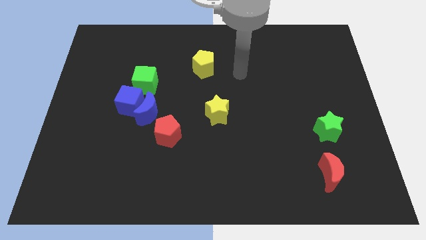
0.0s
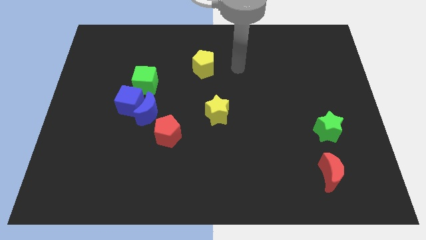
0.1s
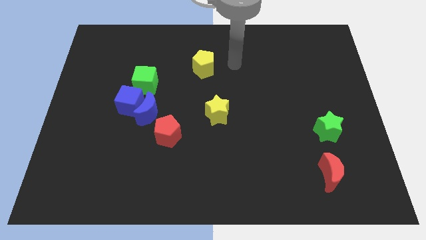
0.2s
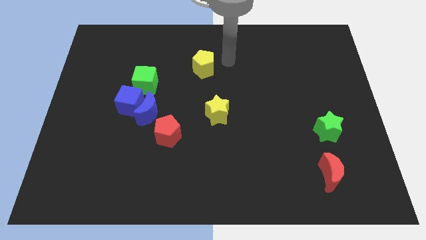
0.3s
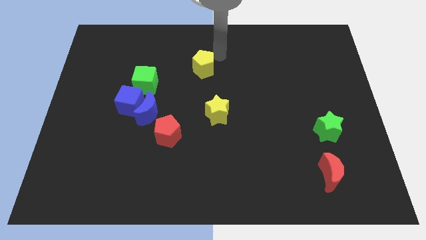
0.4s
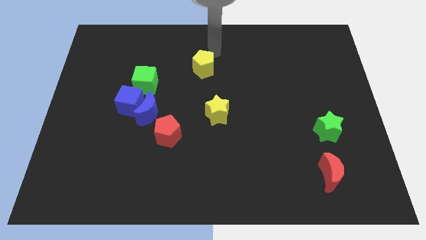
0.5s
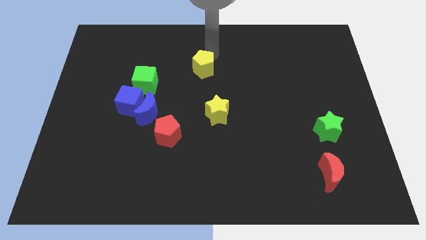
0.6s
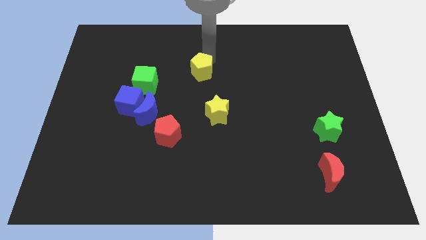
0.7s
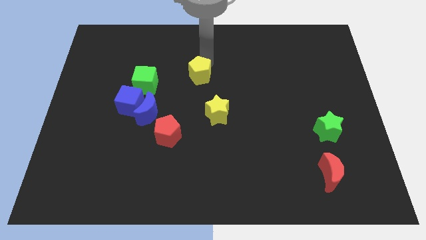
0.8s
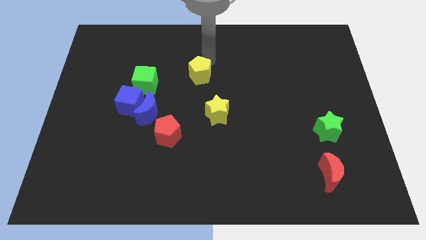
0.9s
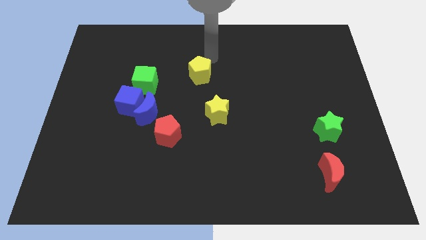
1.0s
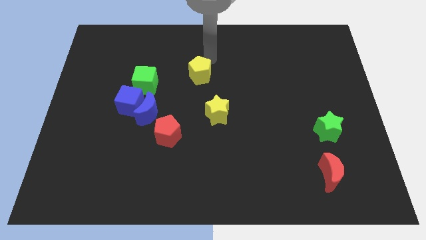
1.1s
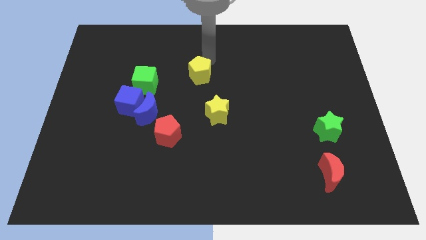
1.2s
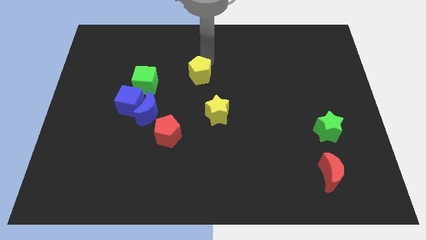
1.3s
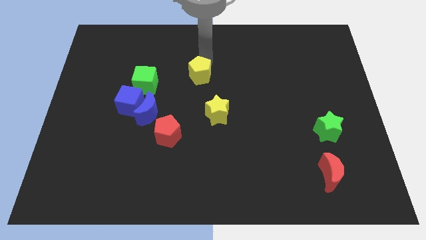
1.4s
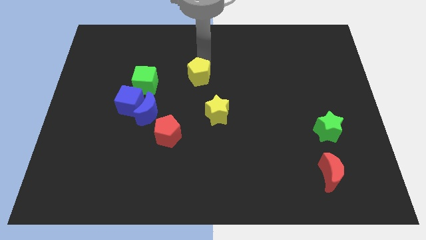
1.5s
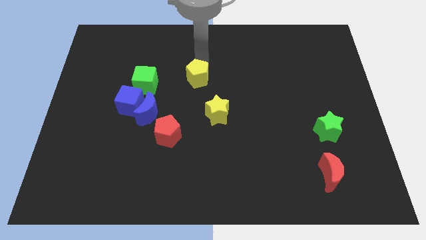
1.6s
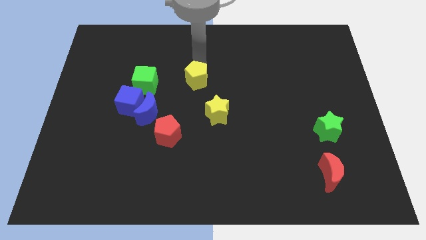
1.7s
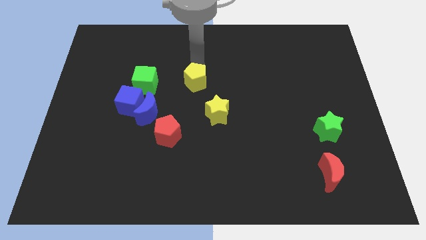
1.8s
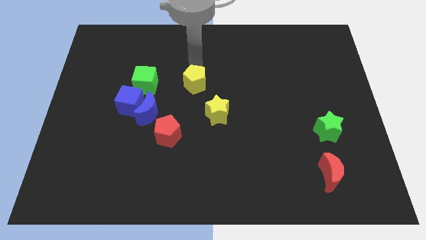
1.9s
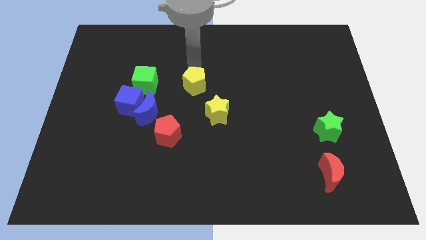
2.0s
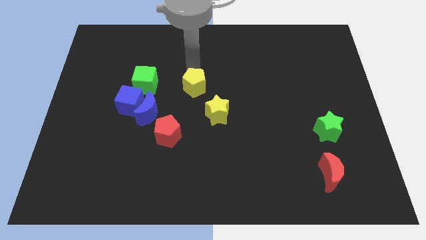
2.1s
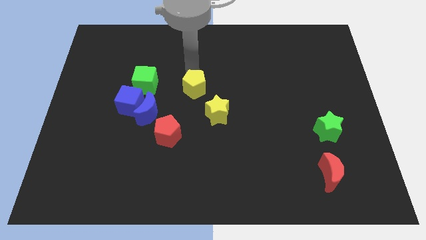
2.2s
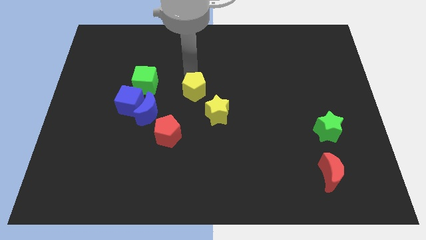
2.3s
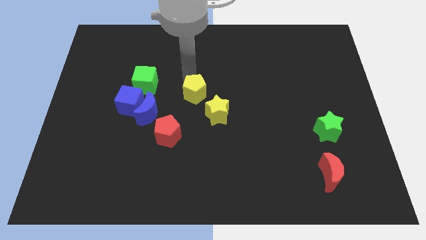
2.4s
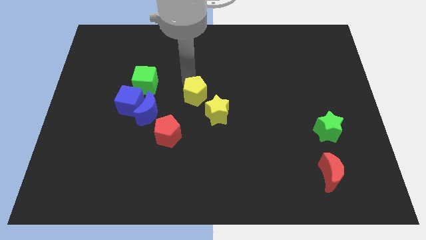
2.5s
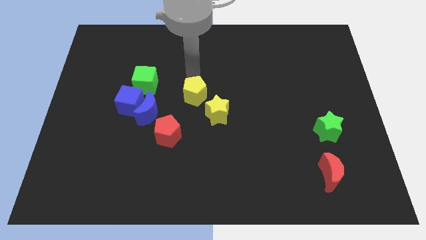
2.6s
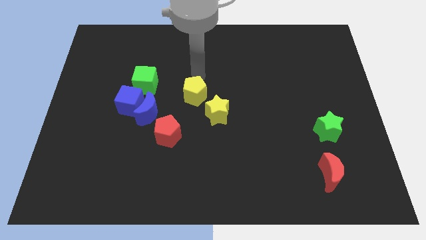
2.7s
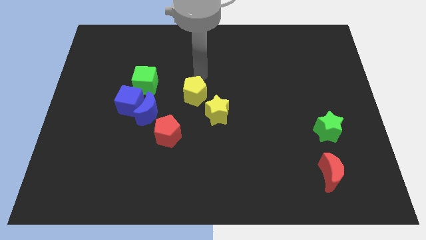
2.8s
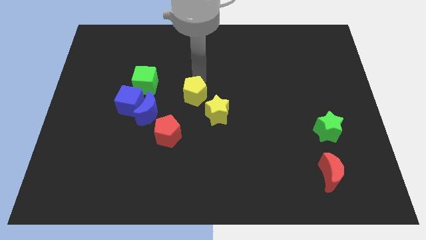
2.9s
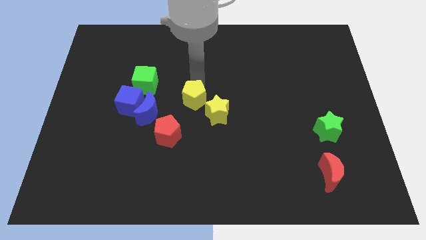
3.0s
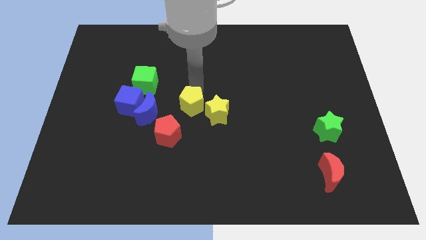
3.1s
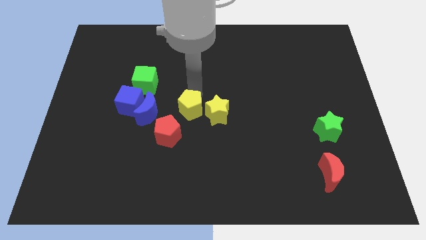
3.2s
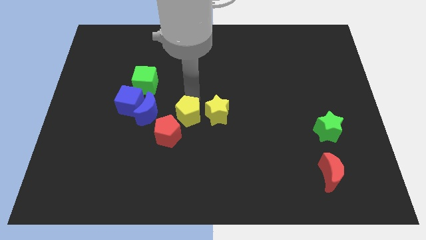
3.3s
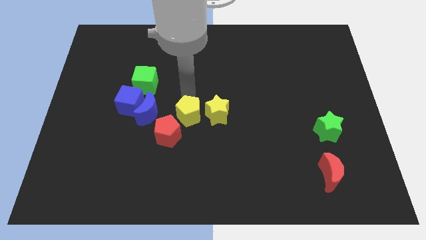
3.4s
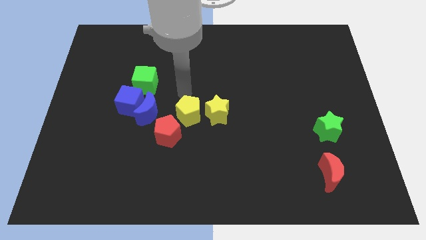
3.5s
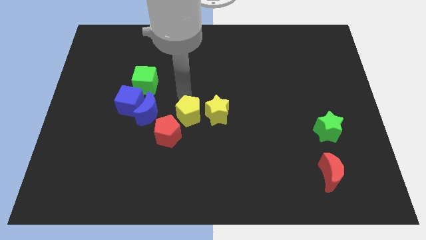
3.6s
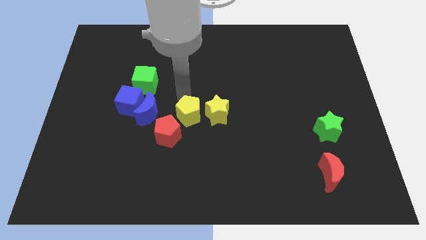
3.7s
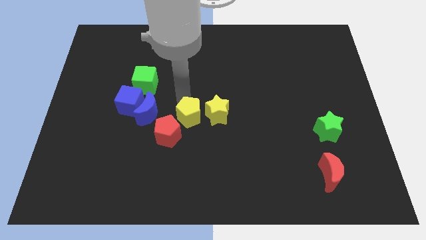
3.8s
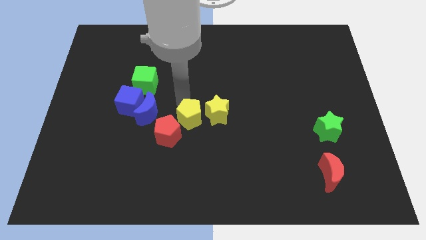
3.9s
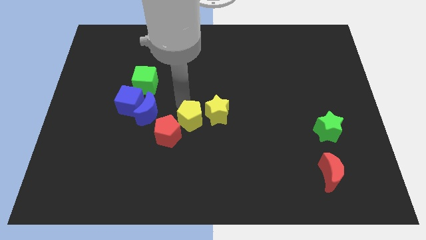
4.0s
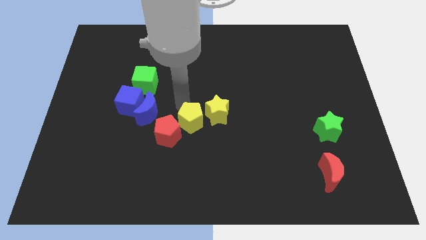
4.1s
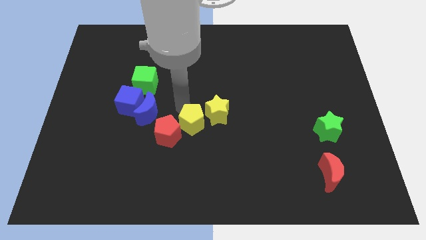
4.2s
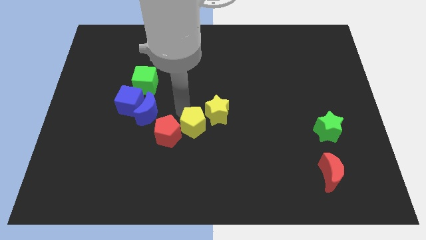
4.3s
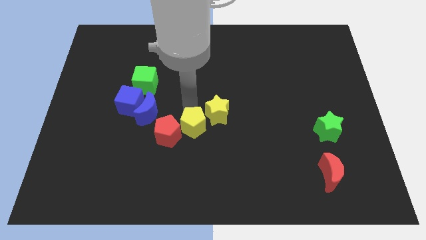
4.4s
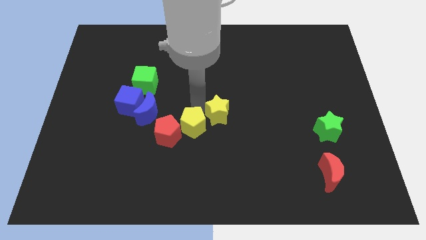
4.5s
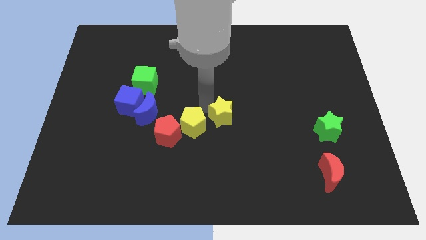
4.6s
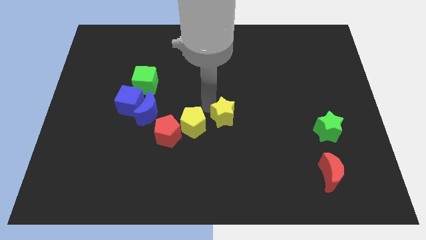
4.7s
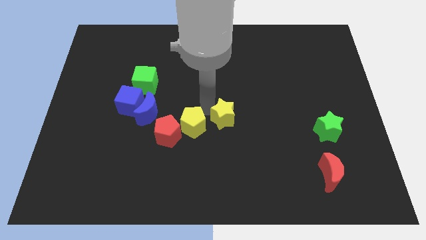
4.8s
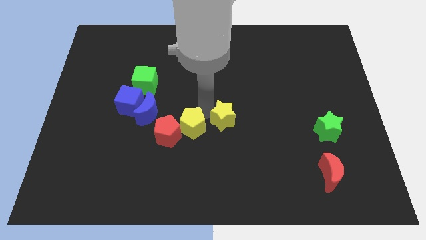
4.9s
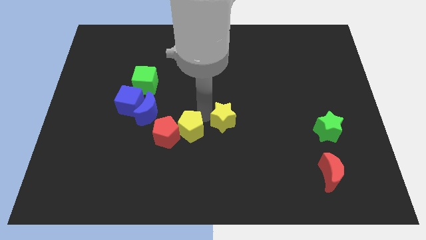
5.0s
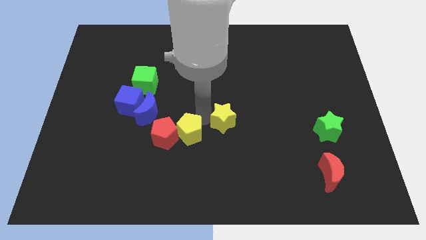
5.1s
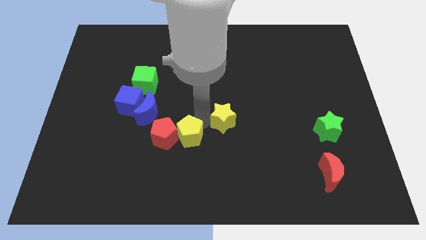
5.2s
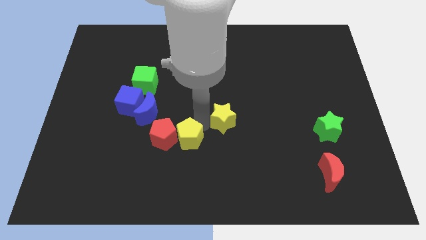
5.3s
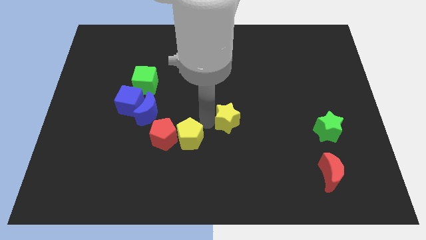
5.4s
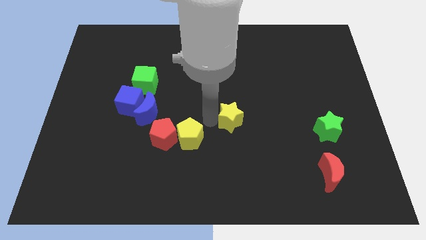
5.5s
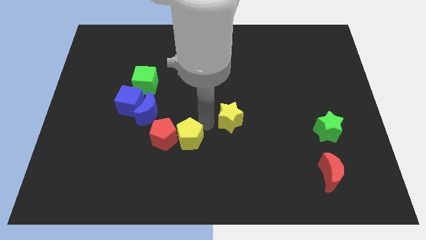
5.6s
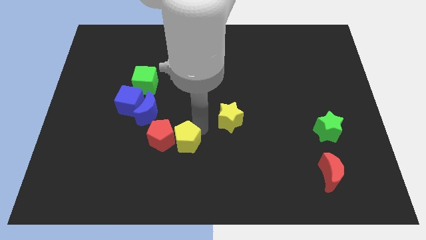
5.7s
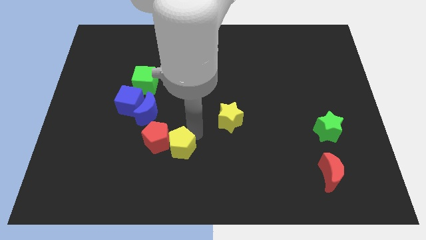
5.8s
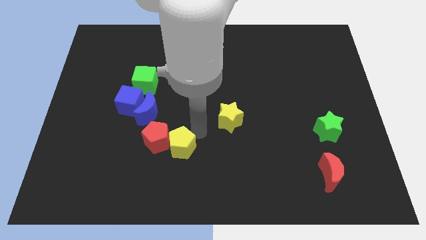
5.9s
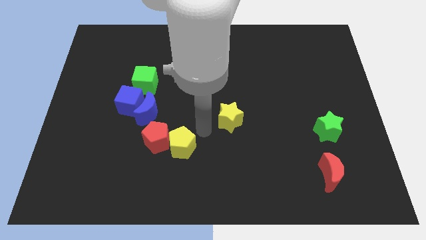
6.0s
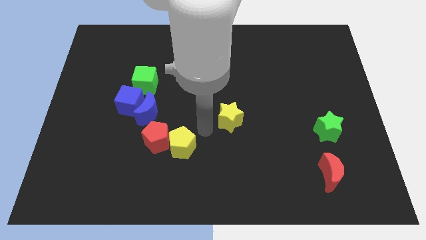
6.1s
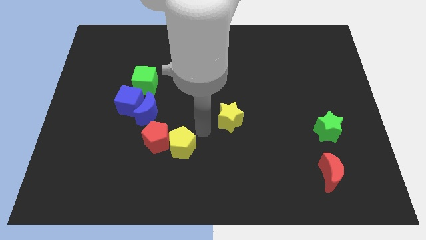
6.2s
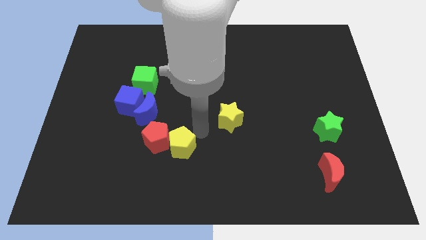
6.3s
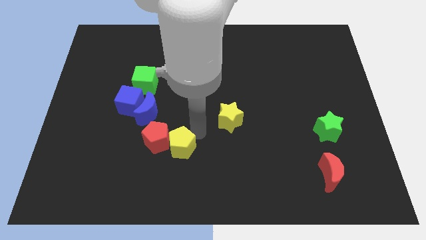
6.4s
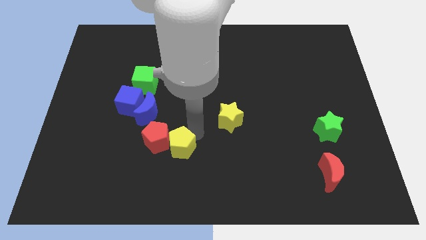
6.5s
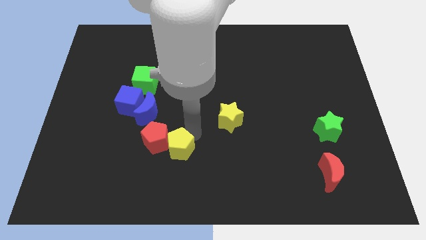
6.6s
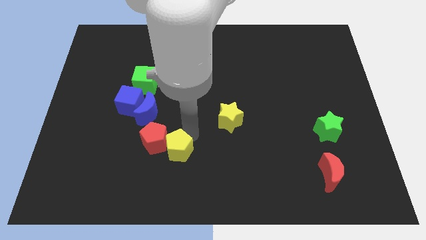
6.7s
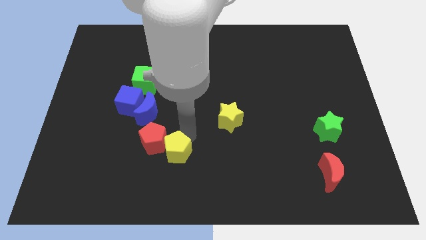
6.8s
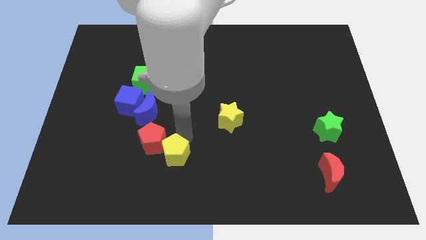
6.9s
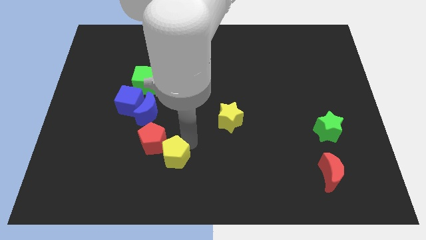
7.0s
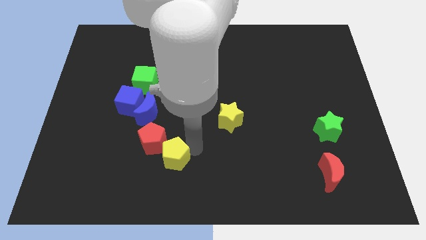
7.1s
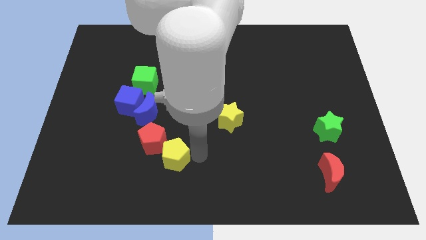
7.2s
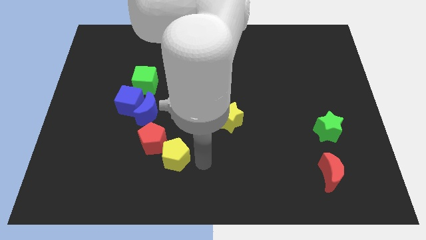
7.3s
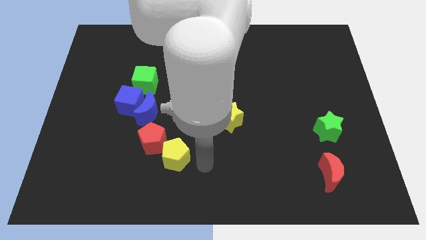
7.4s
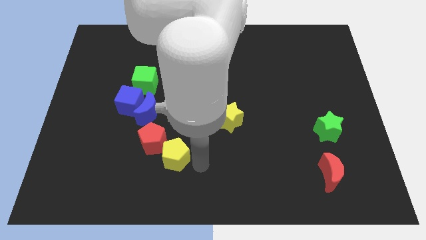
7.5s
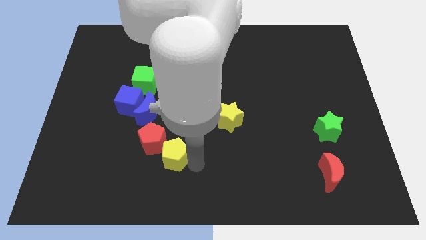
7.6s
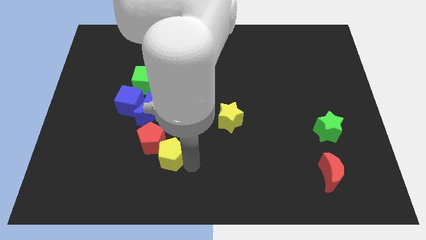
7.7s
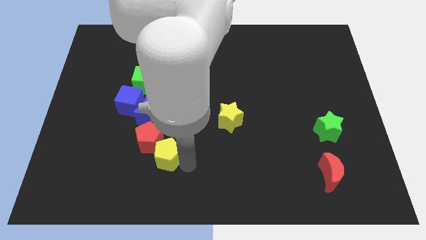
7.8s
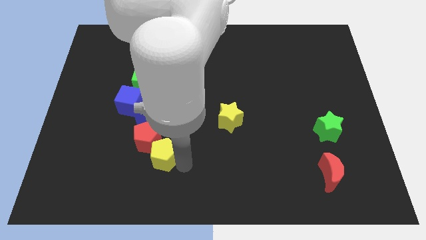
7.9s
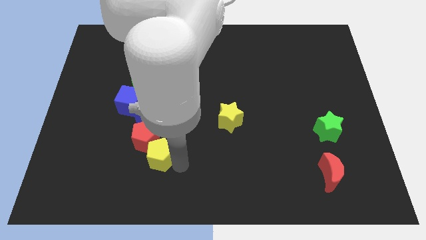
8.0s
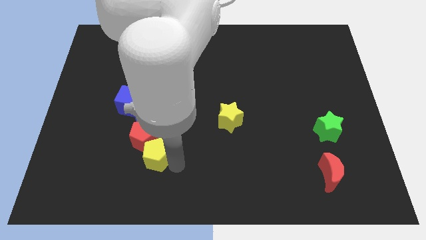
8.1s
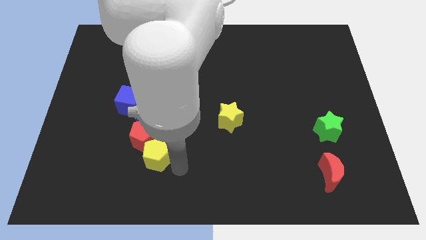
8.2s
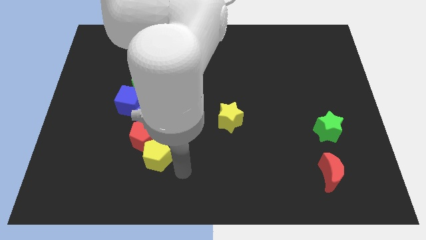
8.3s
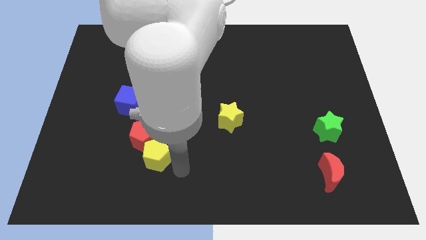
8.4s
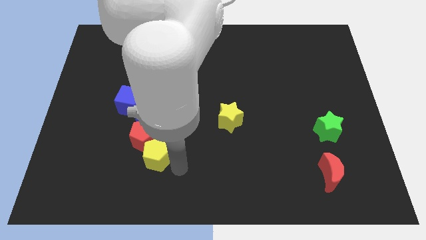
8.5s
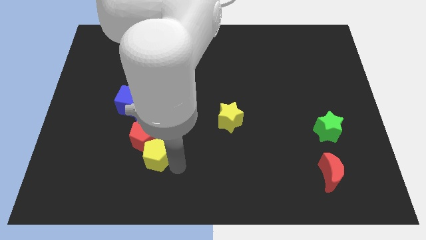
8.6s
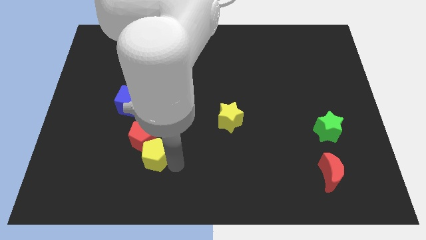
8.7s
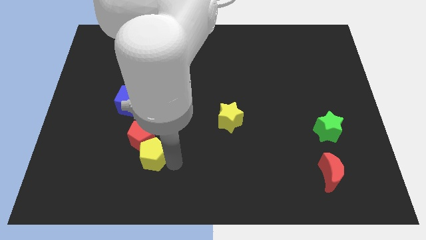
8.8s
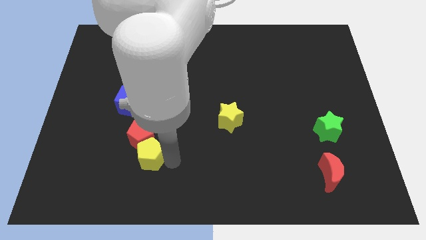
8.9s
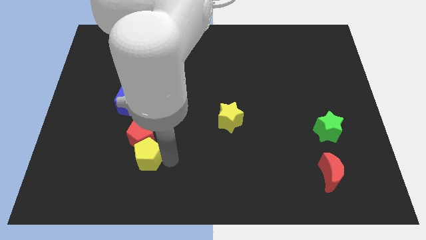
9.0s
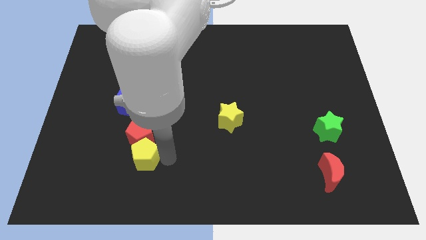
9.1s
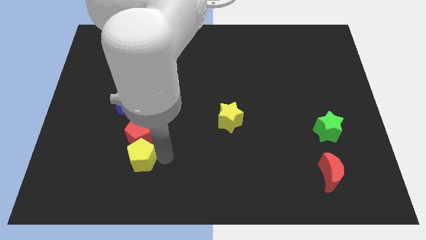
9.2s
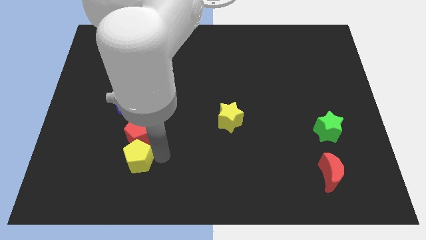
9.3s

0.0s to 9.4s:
slide the yellow pentagon to the bottom side of the blue cube
